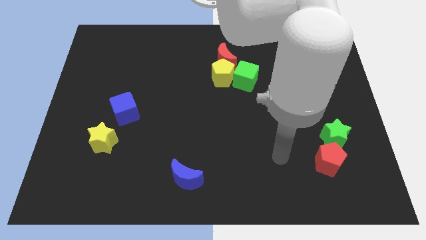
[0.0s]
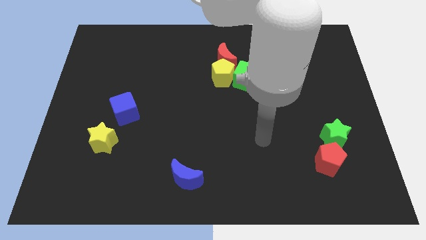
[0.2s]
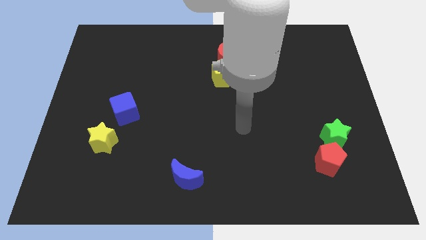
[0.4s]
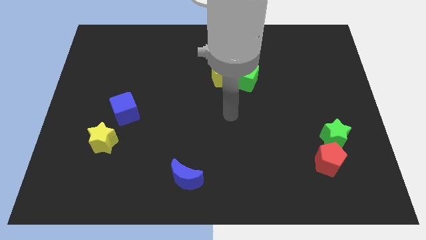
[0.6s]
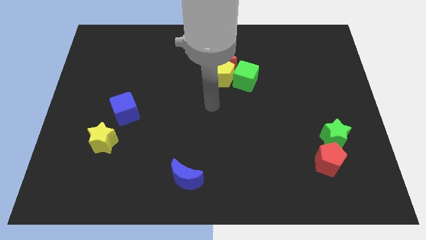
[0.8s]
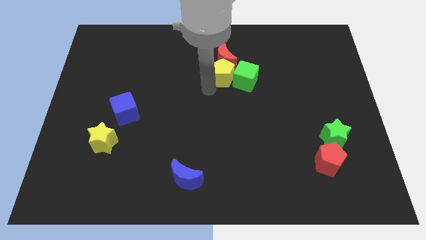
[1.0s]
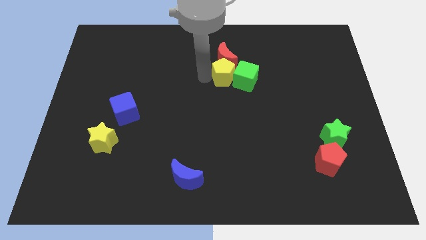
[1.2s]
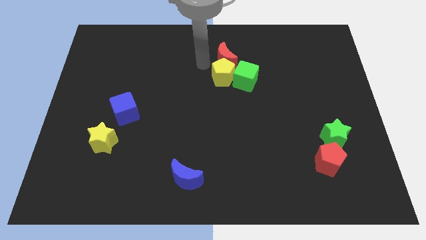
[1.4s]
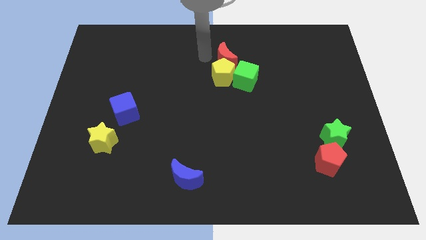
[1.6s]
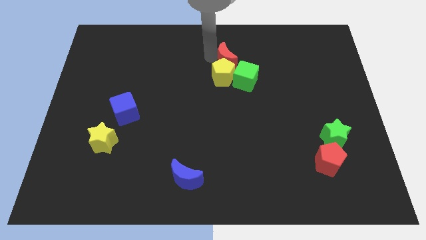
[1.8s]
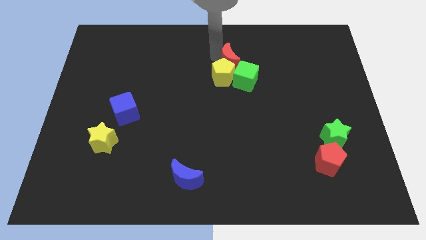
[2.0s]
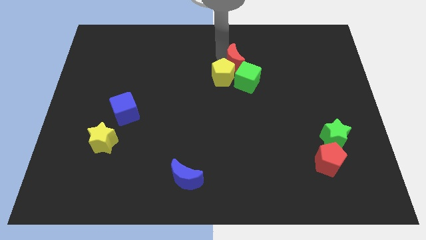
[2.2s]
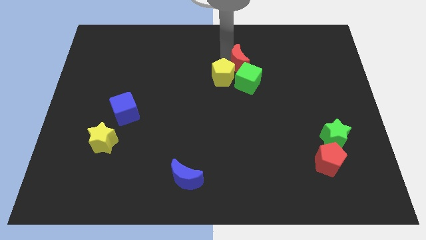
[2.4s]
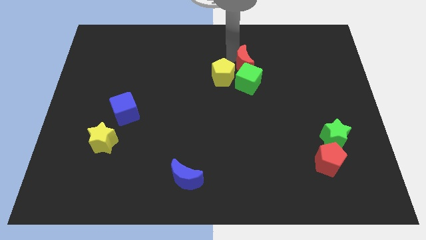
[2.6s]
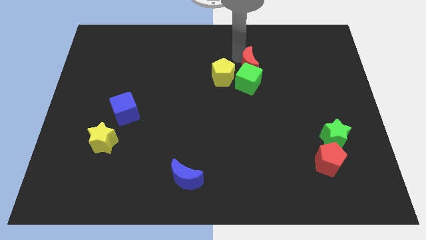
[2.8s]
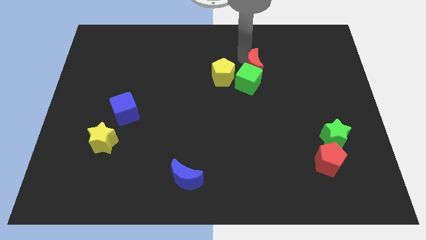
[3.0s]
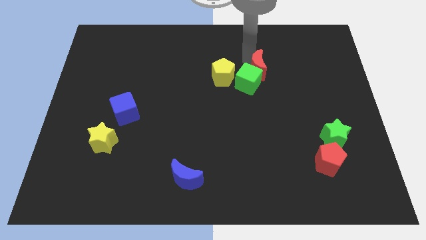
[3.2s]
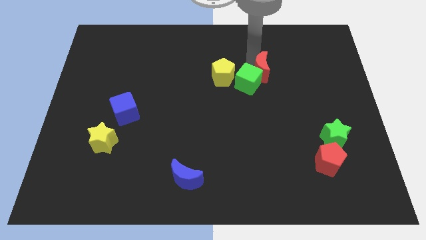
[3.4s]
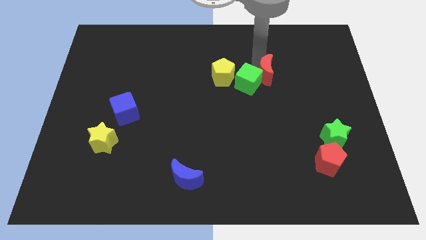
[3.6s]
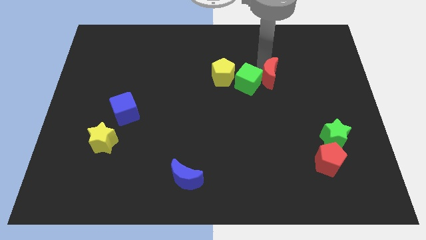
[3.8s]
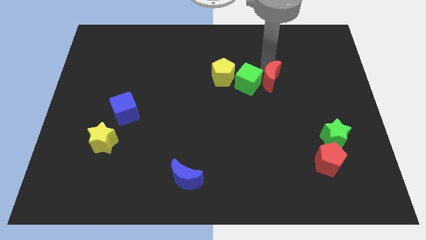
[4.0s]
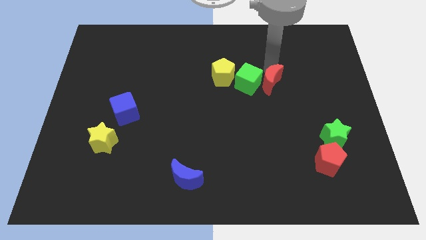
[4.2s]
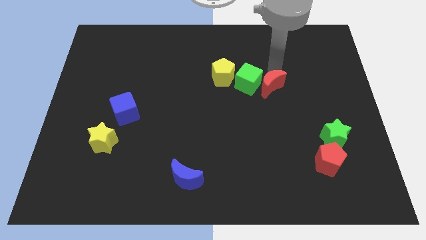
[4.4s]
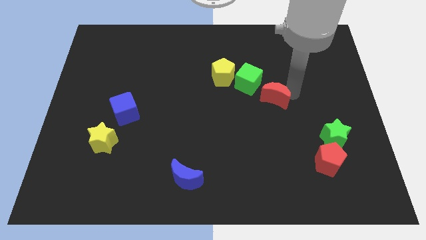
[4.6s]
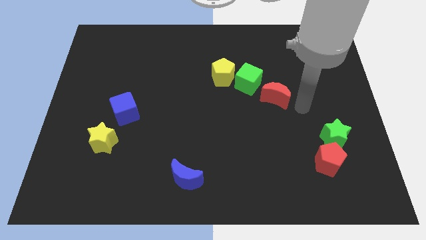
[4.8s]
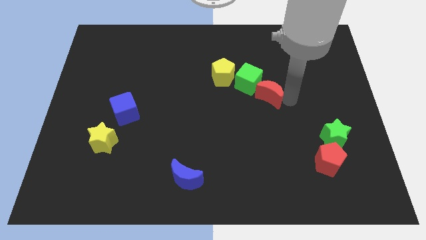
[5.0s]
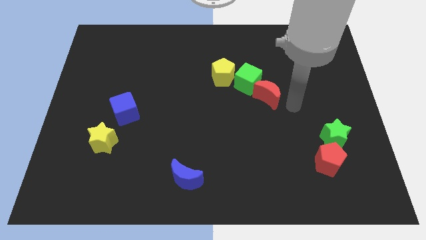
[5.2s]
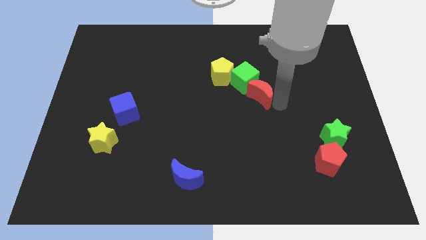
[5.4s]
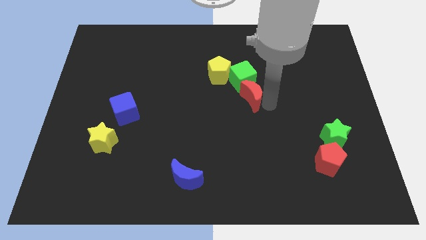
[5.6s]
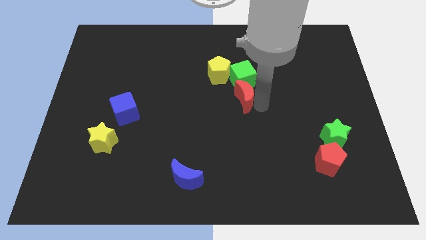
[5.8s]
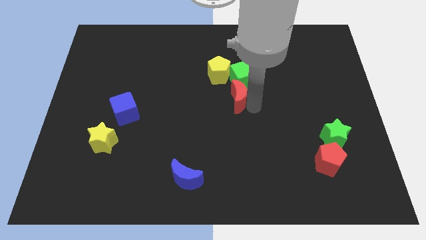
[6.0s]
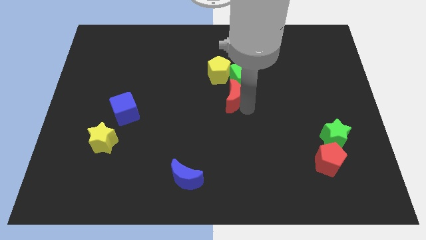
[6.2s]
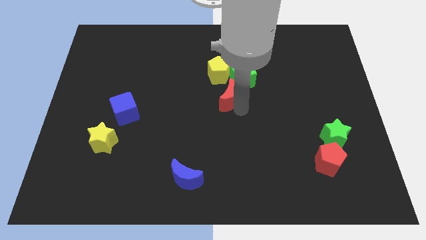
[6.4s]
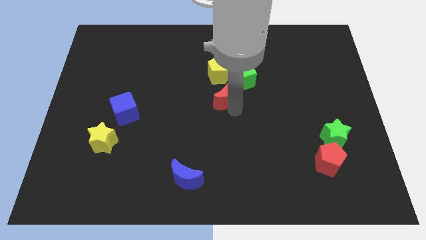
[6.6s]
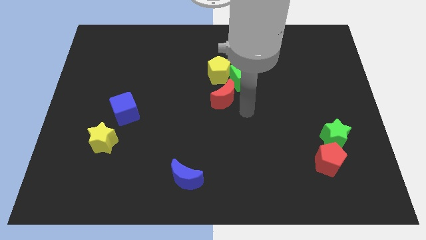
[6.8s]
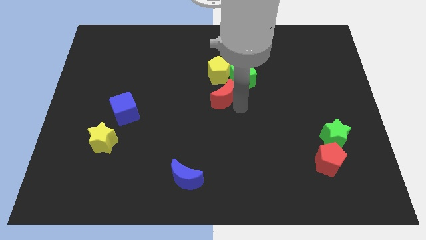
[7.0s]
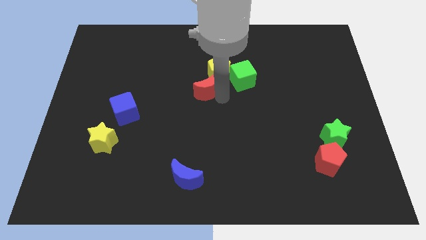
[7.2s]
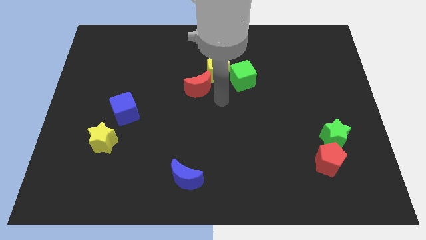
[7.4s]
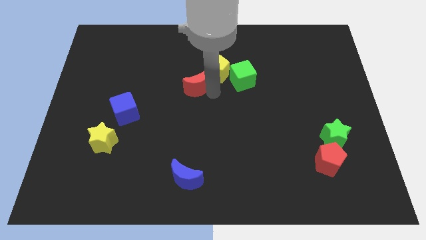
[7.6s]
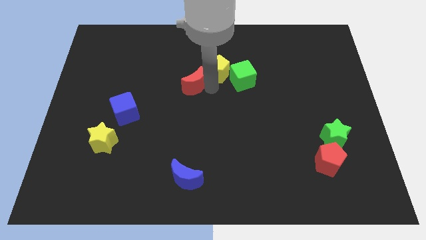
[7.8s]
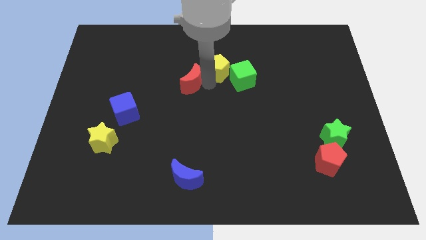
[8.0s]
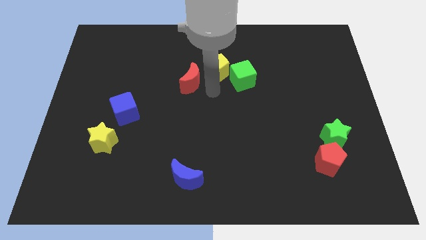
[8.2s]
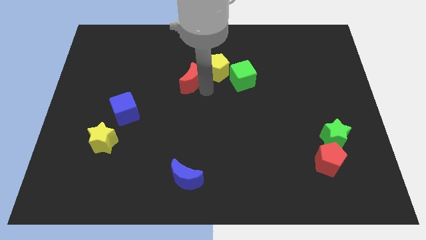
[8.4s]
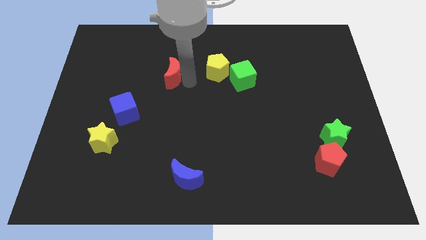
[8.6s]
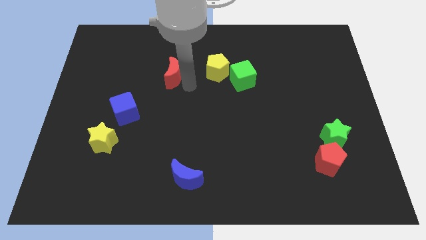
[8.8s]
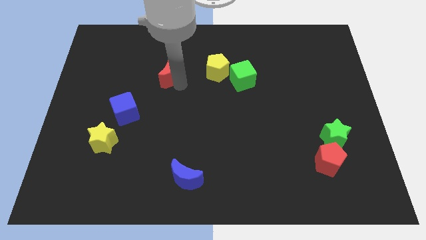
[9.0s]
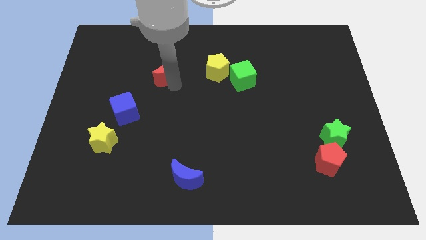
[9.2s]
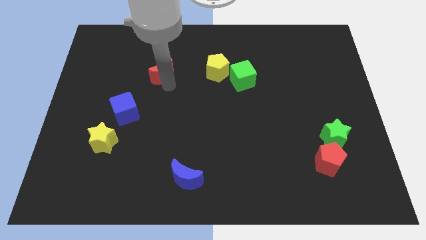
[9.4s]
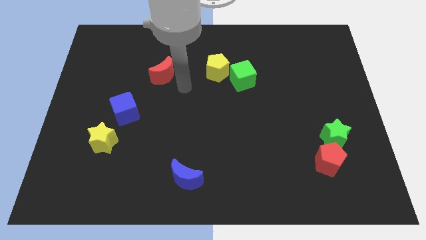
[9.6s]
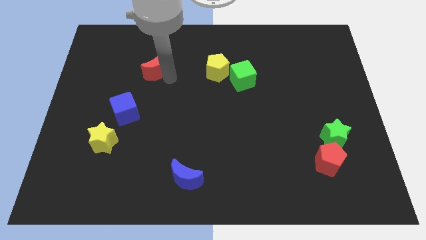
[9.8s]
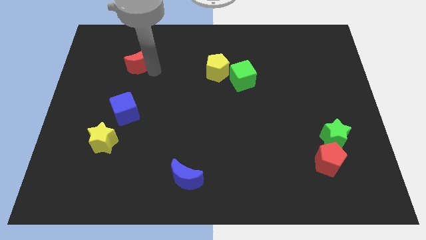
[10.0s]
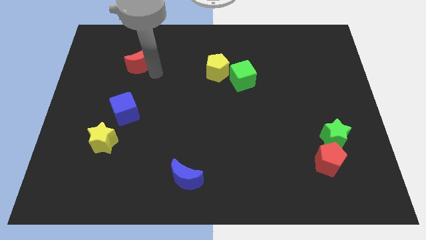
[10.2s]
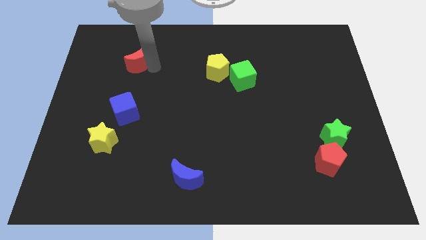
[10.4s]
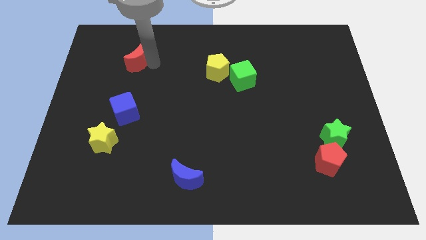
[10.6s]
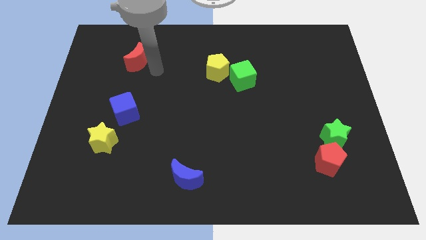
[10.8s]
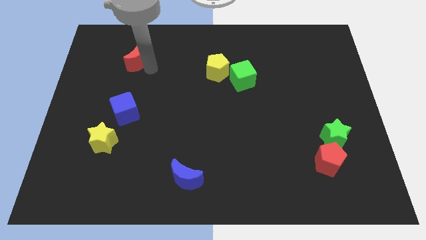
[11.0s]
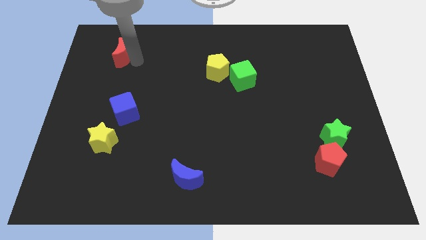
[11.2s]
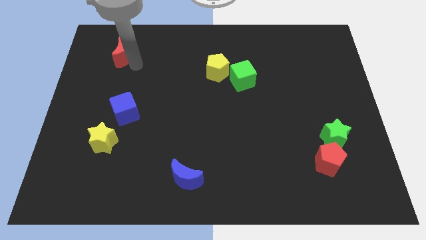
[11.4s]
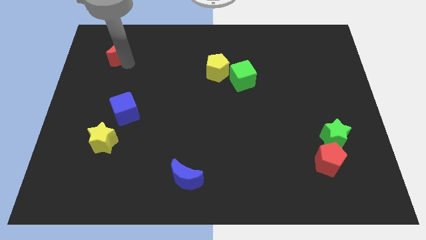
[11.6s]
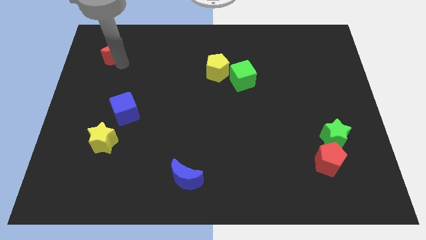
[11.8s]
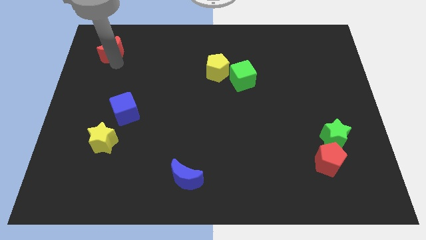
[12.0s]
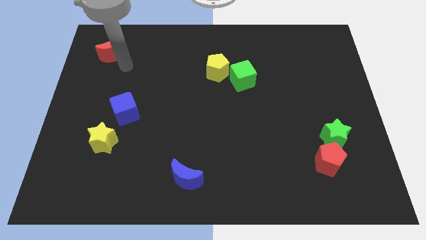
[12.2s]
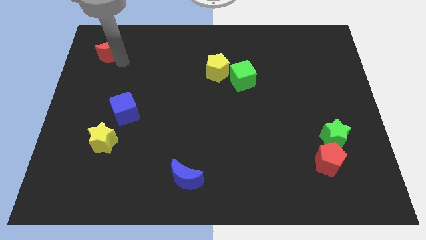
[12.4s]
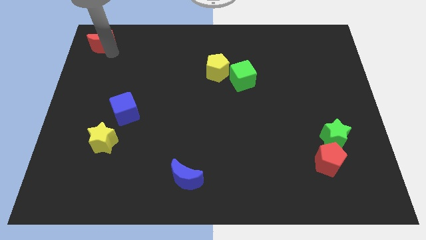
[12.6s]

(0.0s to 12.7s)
push the red moon to the top left of the board

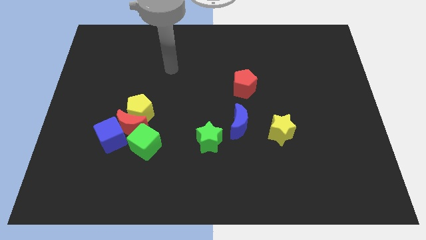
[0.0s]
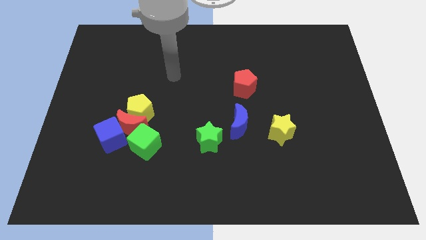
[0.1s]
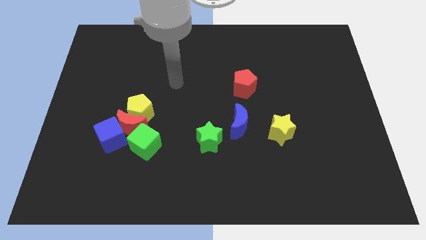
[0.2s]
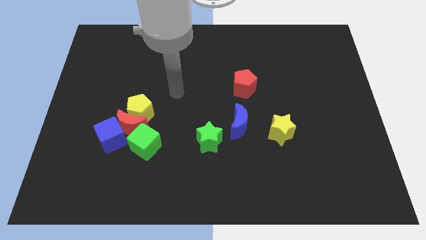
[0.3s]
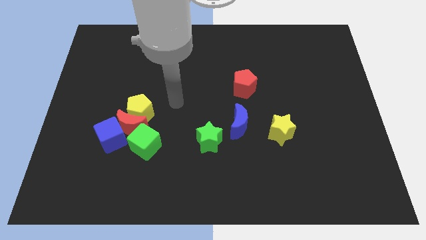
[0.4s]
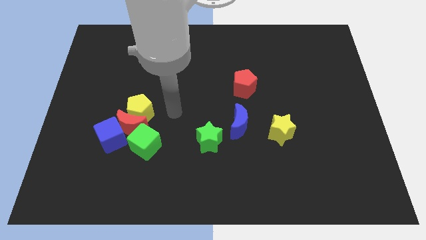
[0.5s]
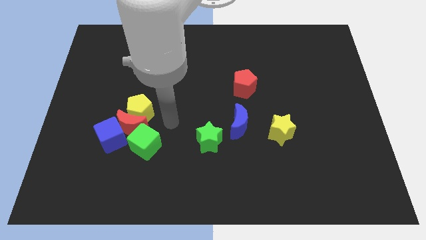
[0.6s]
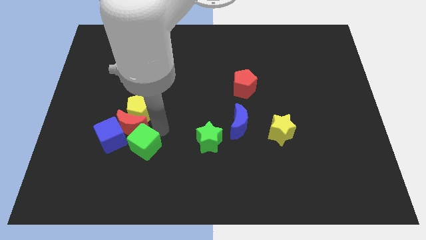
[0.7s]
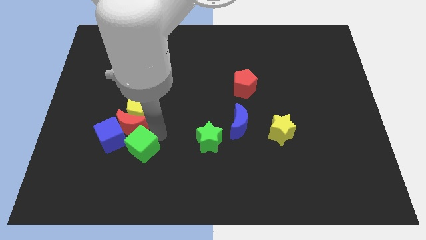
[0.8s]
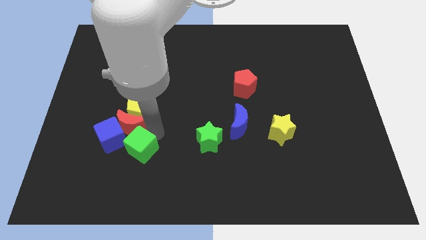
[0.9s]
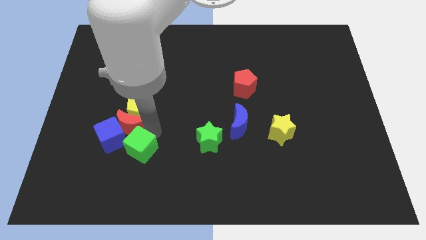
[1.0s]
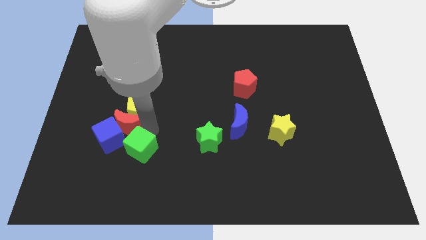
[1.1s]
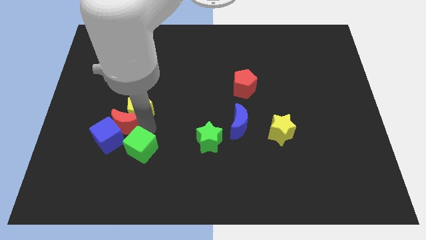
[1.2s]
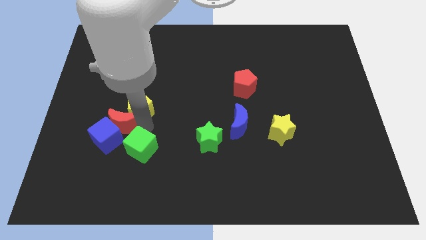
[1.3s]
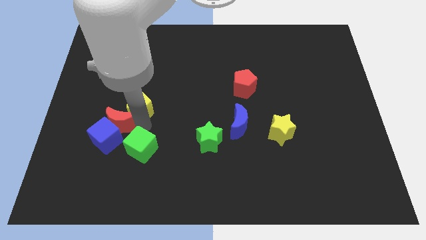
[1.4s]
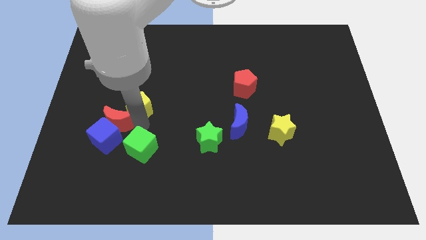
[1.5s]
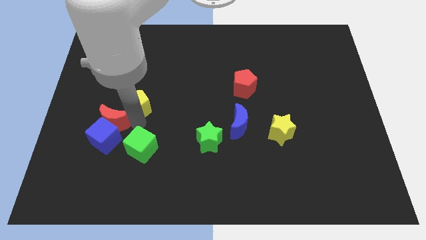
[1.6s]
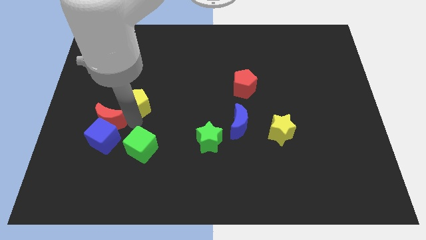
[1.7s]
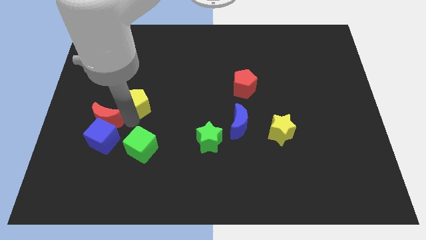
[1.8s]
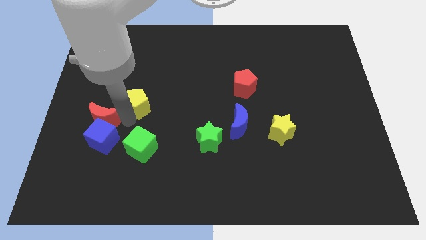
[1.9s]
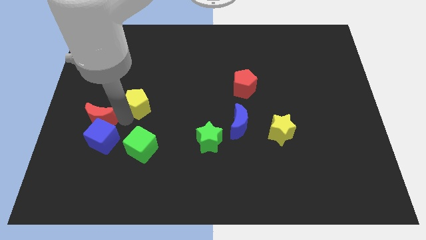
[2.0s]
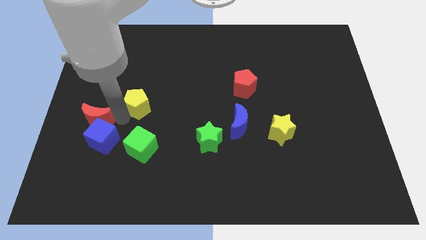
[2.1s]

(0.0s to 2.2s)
push the red moon to the left side
